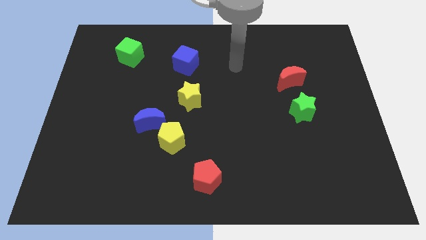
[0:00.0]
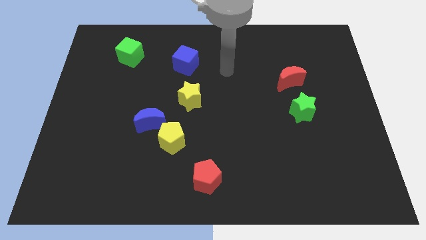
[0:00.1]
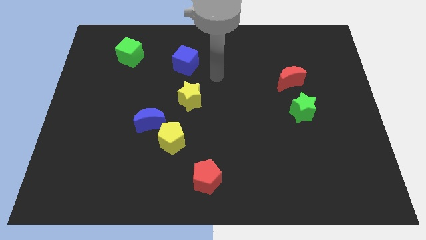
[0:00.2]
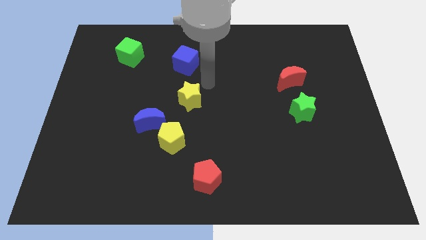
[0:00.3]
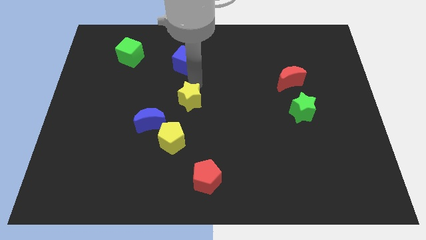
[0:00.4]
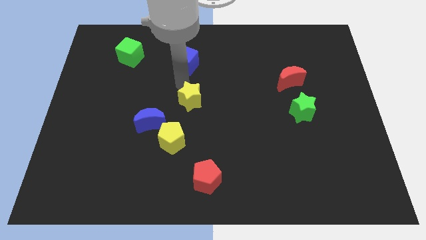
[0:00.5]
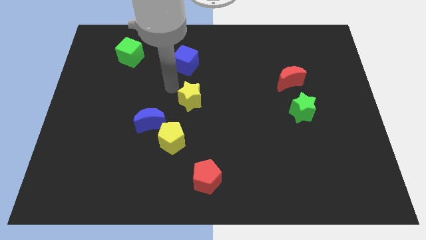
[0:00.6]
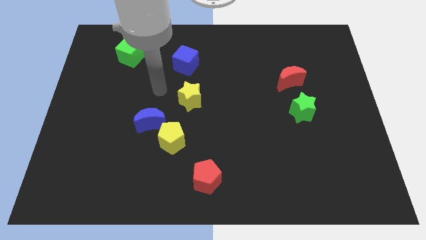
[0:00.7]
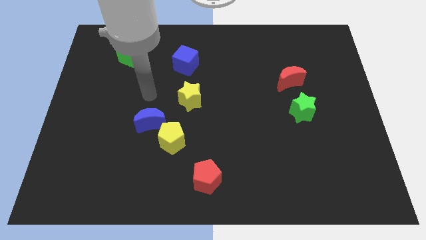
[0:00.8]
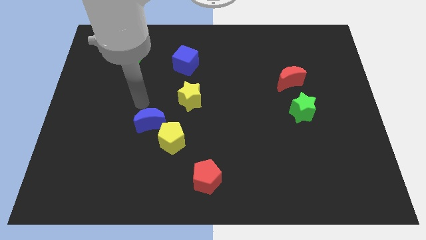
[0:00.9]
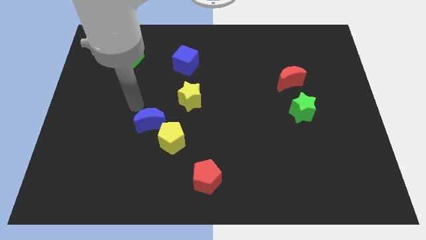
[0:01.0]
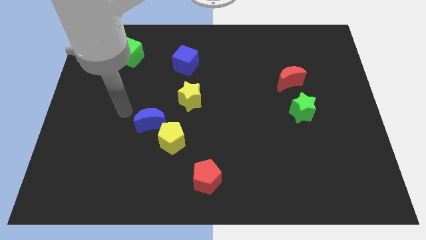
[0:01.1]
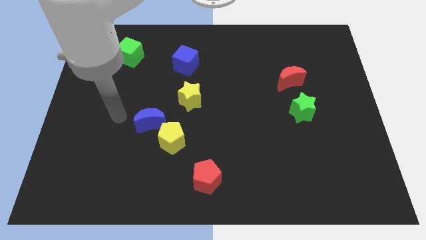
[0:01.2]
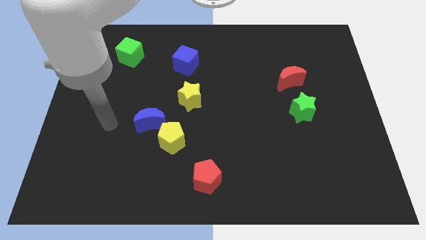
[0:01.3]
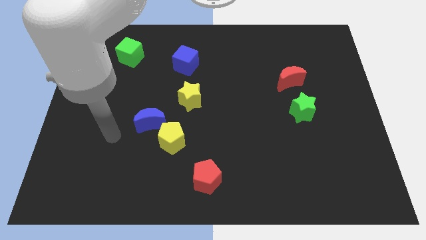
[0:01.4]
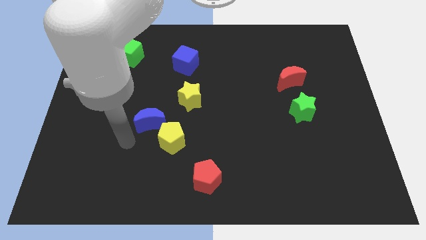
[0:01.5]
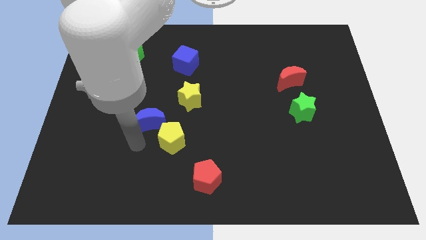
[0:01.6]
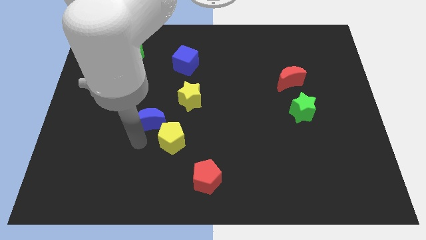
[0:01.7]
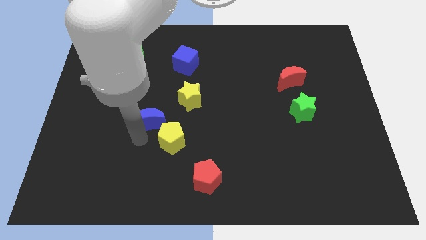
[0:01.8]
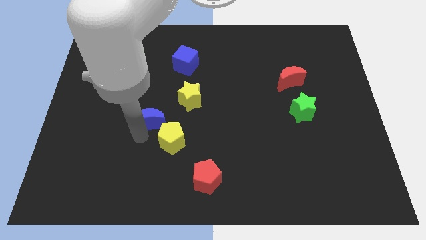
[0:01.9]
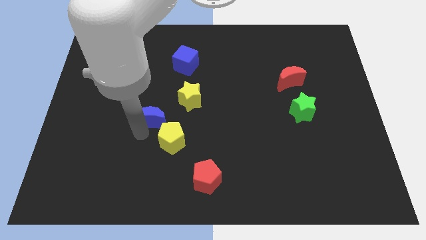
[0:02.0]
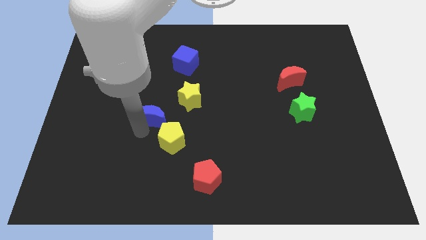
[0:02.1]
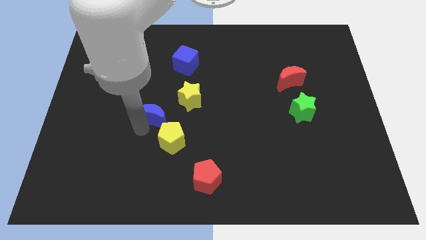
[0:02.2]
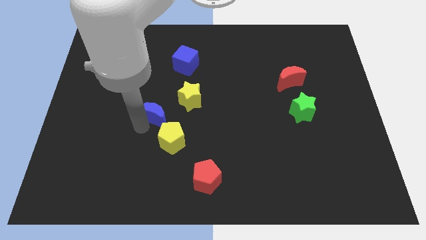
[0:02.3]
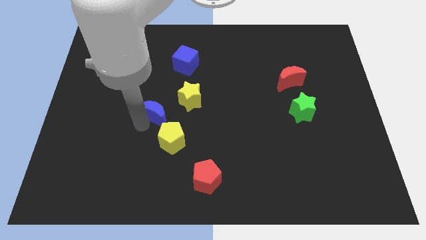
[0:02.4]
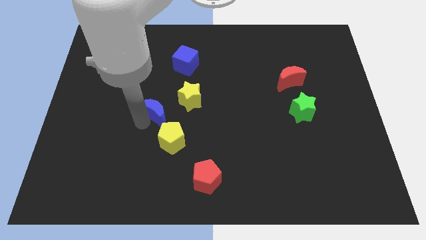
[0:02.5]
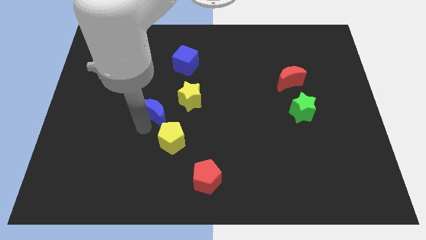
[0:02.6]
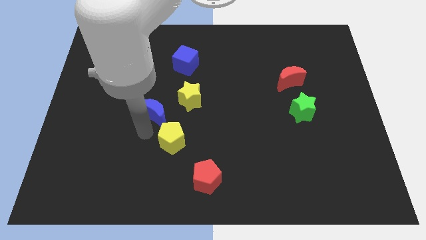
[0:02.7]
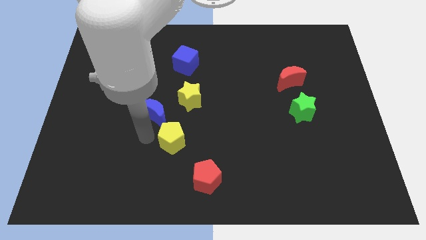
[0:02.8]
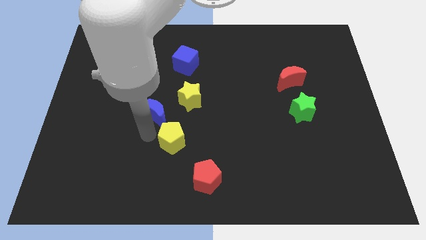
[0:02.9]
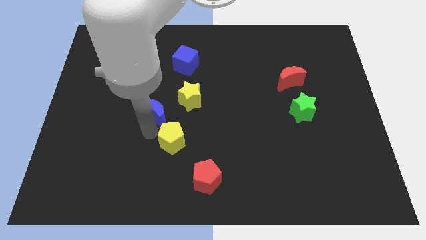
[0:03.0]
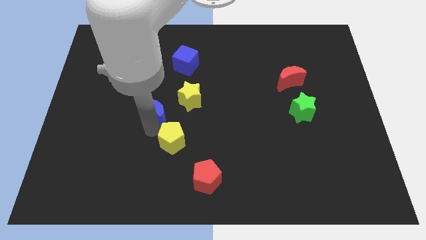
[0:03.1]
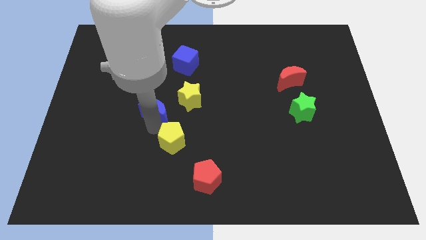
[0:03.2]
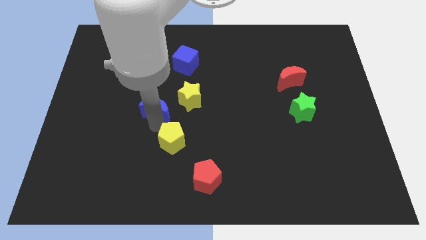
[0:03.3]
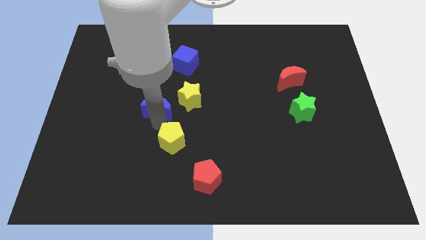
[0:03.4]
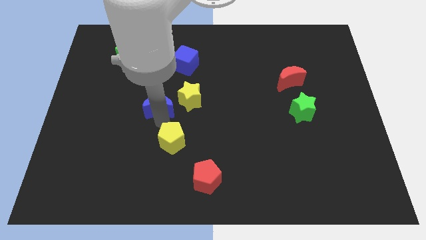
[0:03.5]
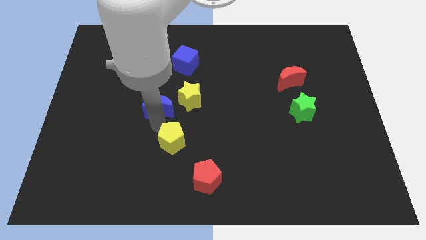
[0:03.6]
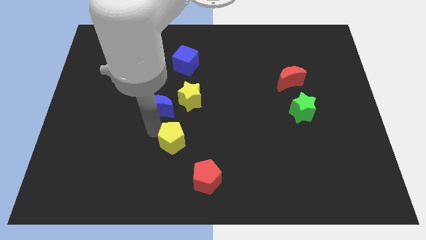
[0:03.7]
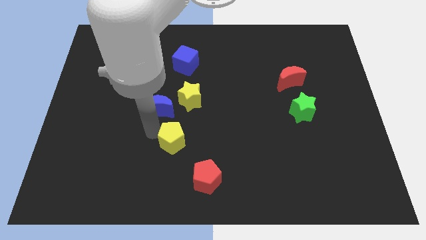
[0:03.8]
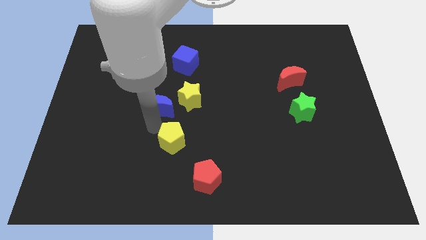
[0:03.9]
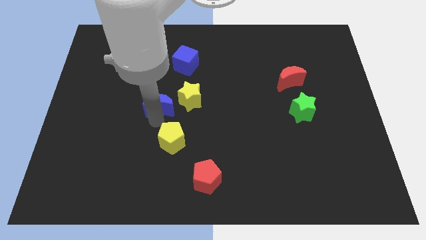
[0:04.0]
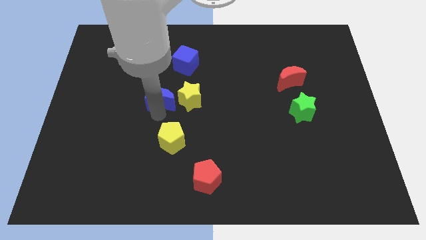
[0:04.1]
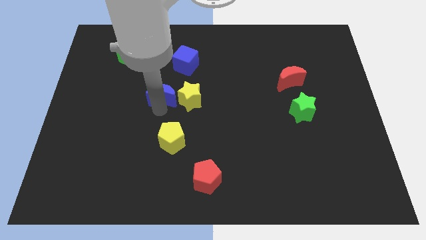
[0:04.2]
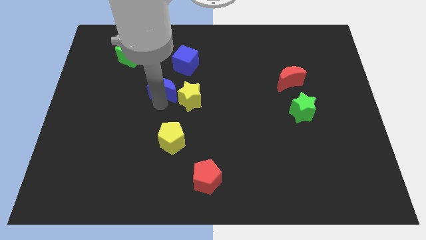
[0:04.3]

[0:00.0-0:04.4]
slide the blue moon a little up and to the right diagonally

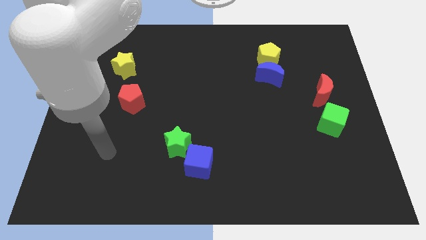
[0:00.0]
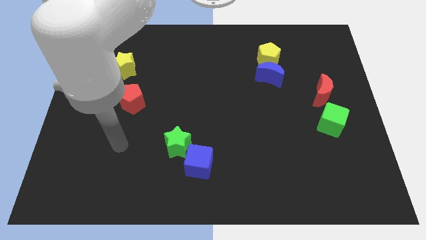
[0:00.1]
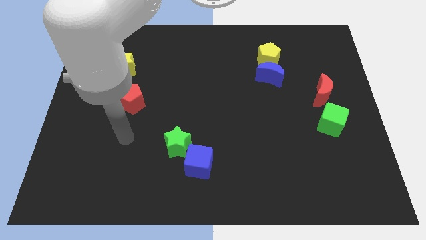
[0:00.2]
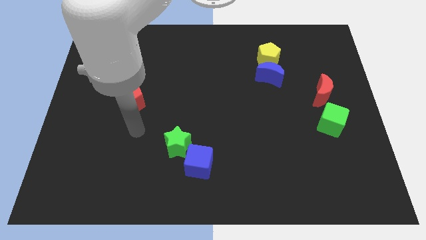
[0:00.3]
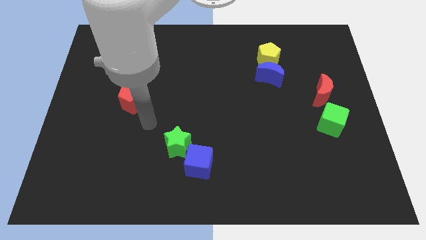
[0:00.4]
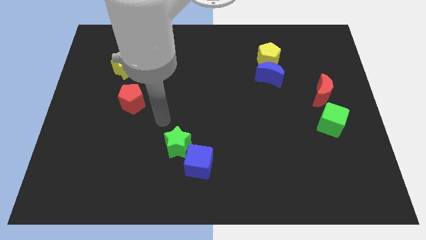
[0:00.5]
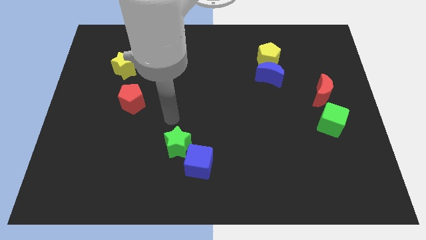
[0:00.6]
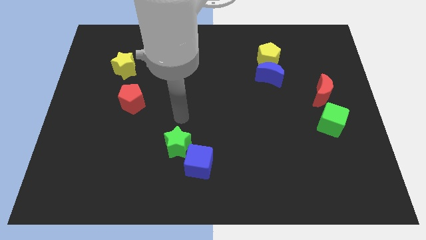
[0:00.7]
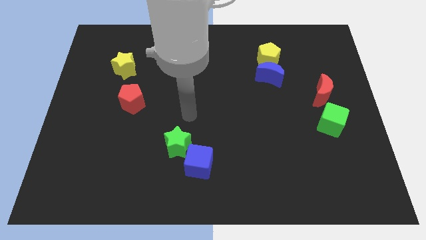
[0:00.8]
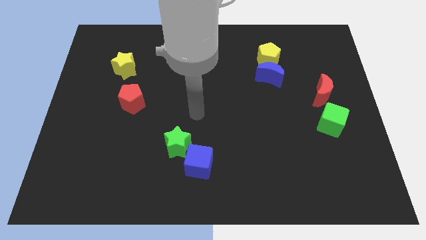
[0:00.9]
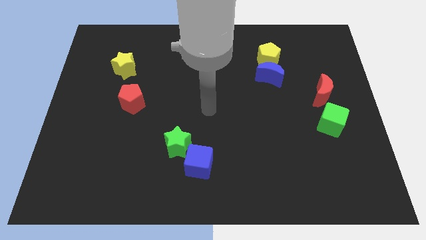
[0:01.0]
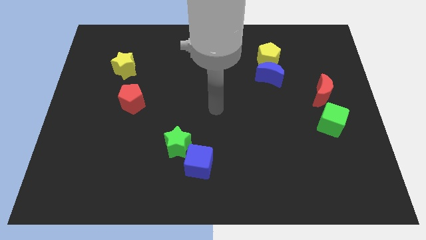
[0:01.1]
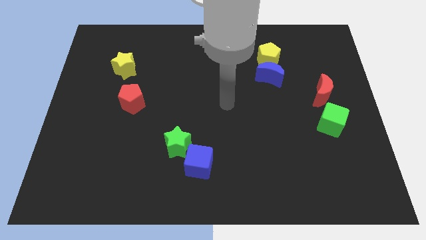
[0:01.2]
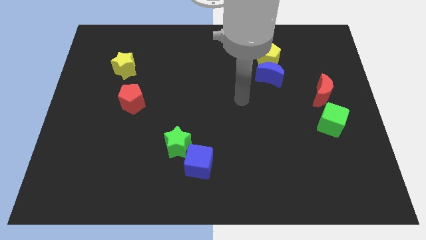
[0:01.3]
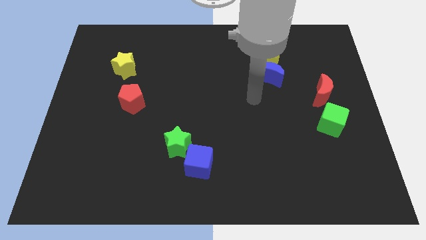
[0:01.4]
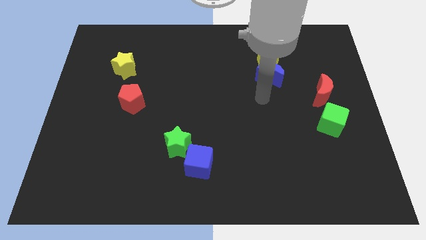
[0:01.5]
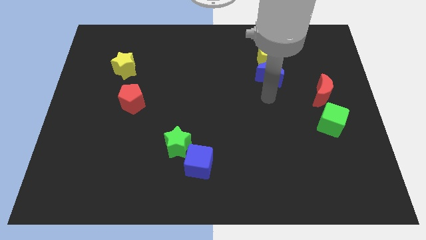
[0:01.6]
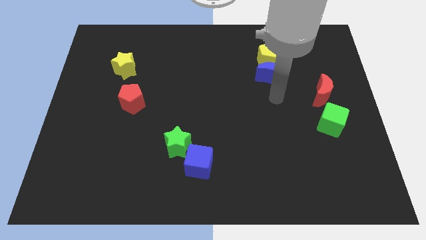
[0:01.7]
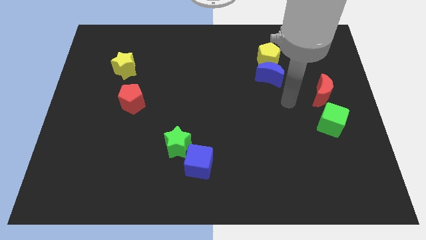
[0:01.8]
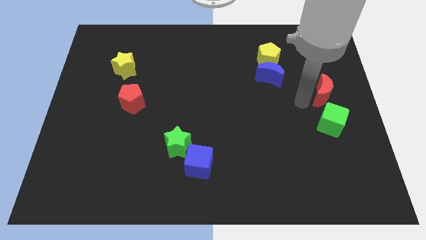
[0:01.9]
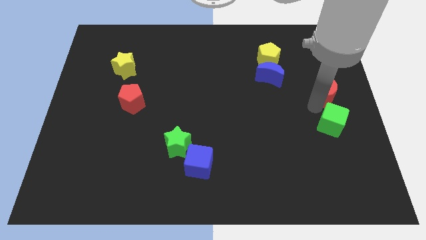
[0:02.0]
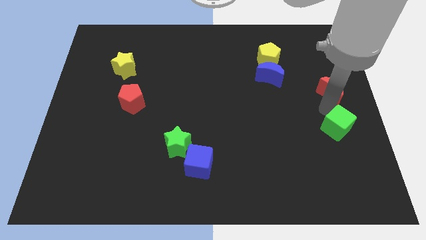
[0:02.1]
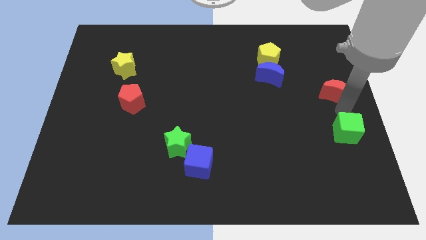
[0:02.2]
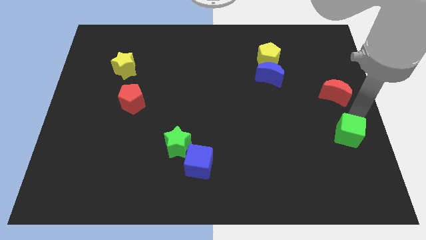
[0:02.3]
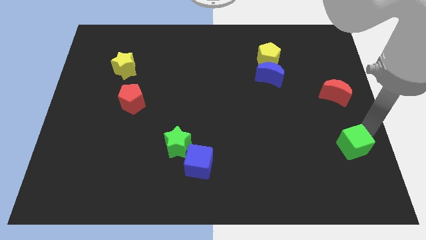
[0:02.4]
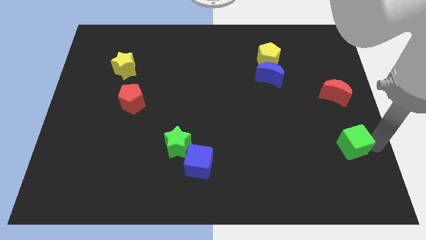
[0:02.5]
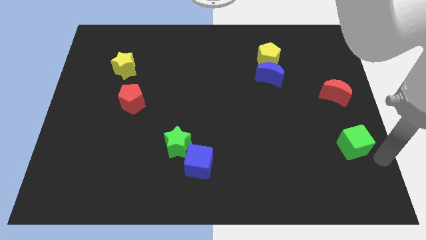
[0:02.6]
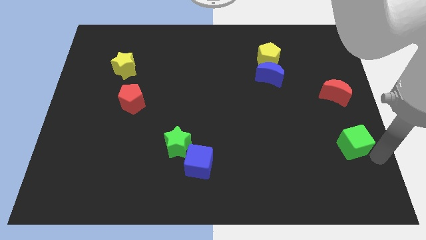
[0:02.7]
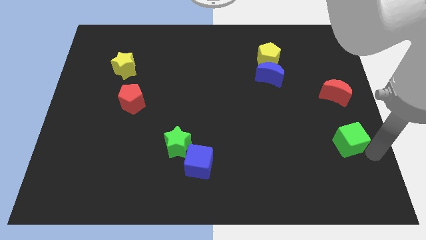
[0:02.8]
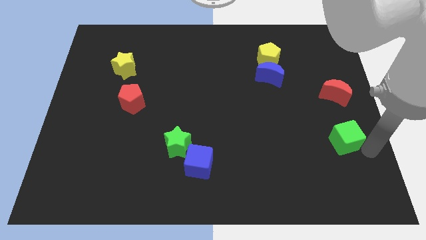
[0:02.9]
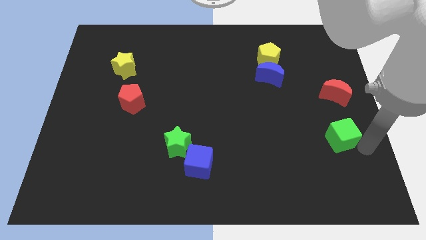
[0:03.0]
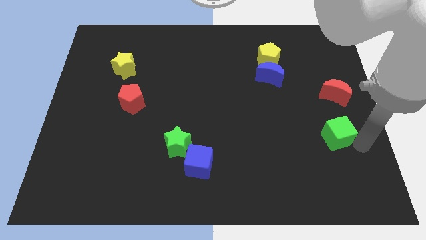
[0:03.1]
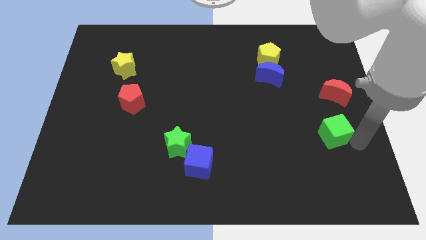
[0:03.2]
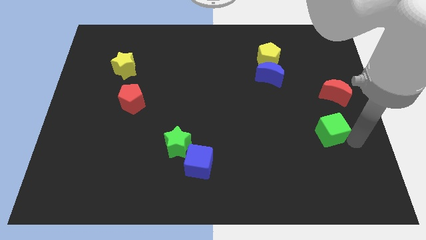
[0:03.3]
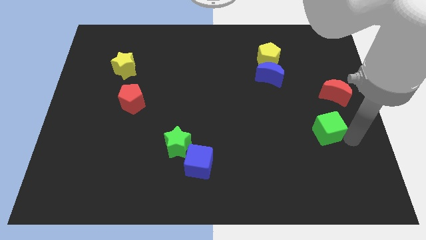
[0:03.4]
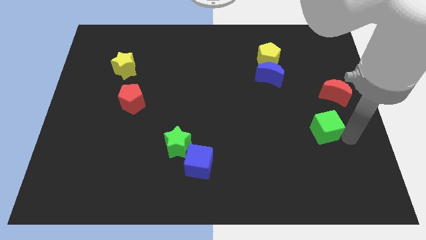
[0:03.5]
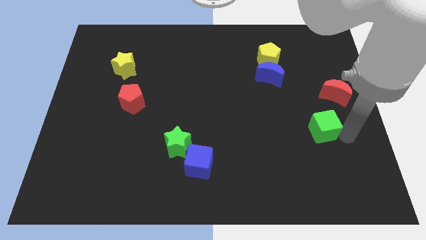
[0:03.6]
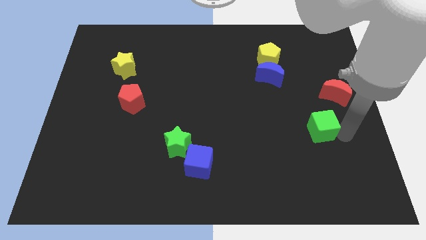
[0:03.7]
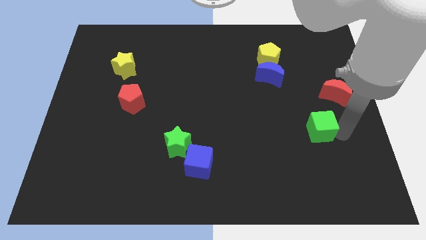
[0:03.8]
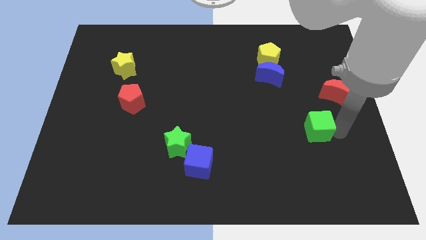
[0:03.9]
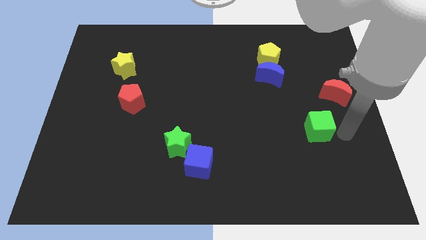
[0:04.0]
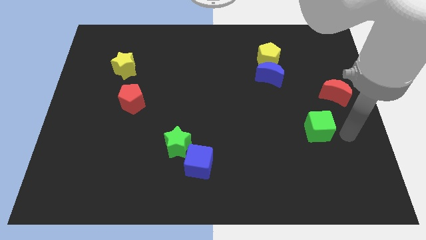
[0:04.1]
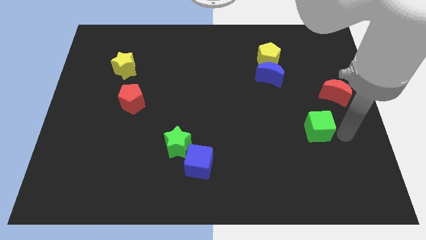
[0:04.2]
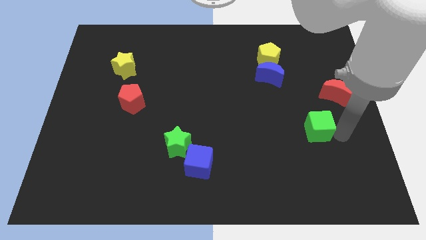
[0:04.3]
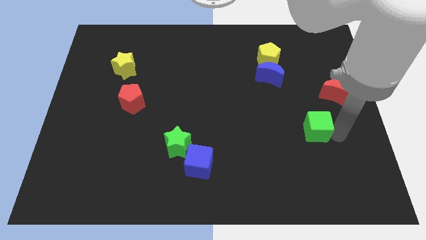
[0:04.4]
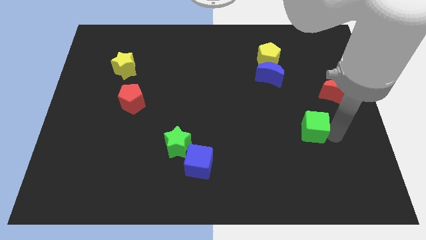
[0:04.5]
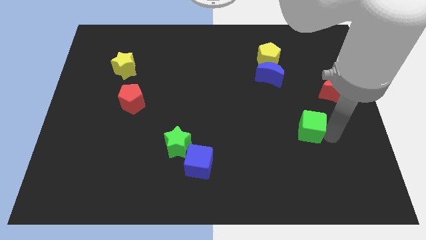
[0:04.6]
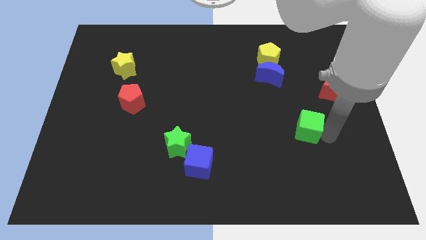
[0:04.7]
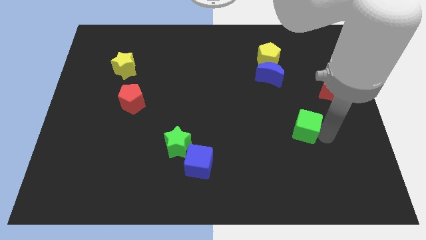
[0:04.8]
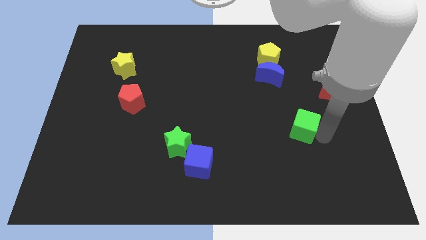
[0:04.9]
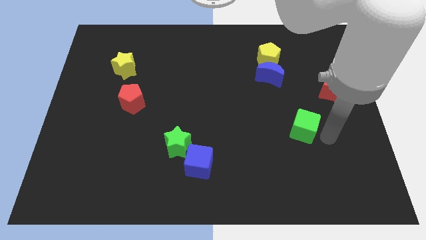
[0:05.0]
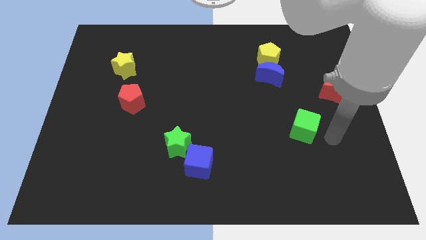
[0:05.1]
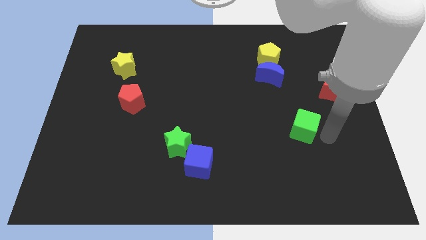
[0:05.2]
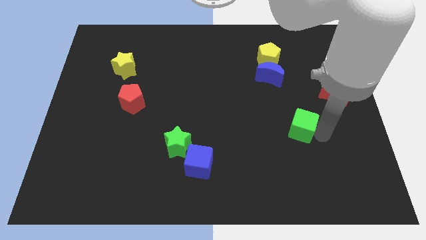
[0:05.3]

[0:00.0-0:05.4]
slightly push the green cube to the left
